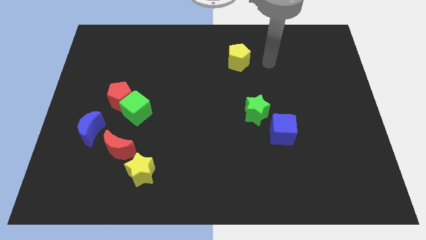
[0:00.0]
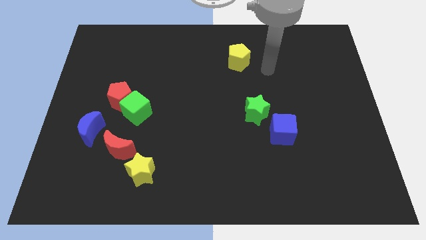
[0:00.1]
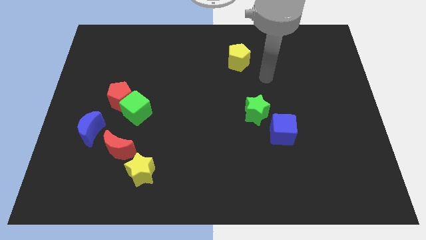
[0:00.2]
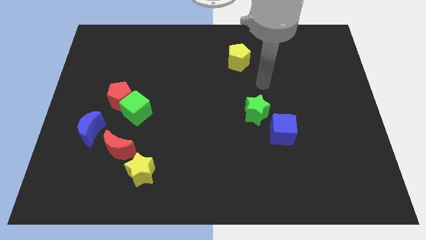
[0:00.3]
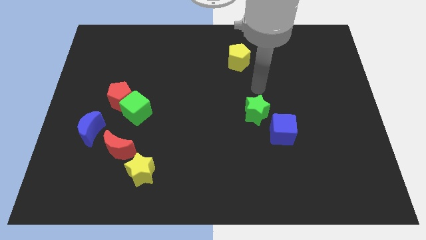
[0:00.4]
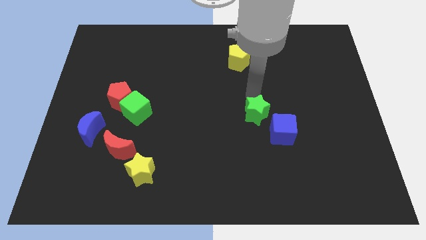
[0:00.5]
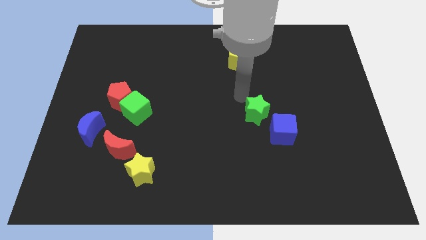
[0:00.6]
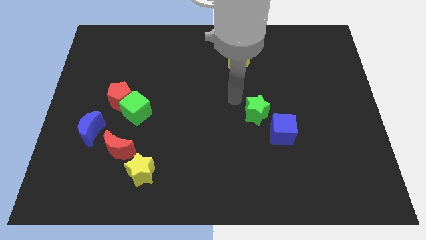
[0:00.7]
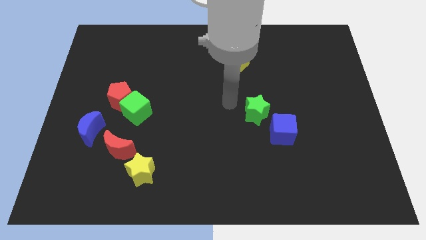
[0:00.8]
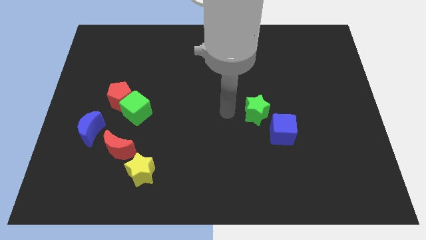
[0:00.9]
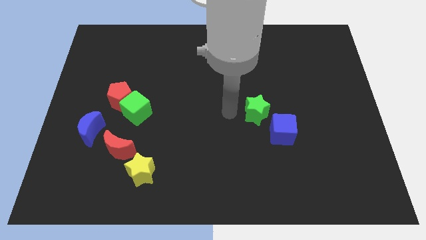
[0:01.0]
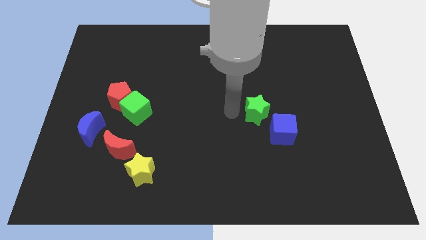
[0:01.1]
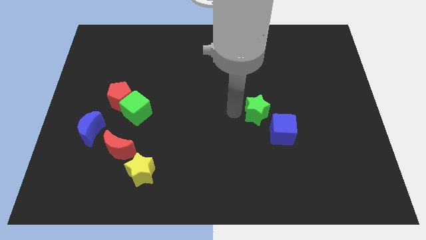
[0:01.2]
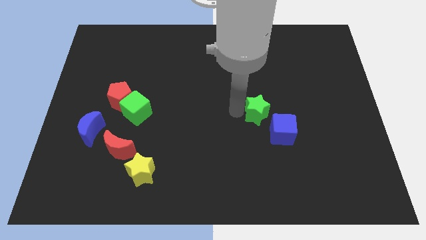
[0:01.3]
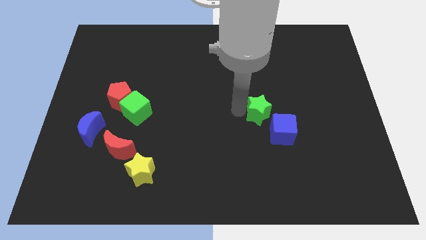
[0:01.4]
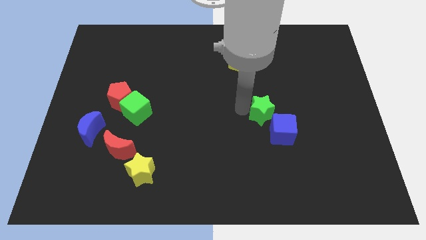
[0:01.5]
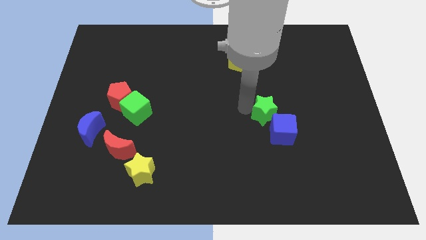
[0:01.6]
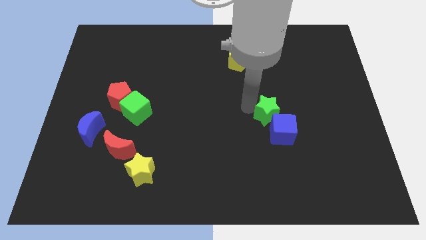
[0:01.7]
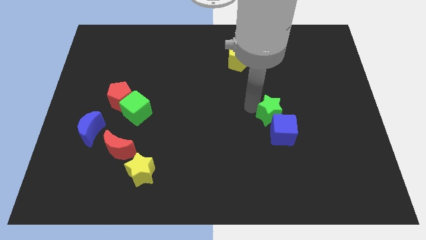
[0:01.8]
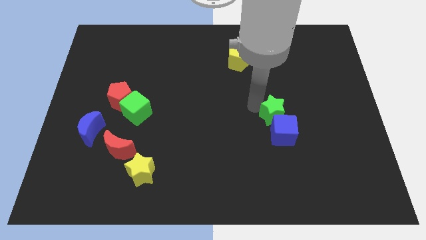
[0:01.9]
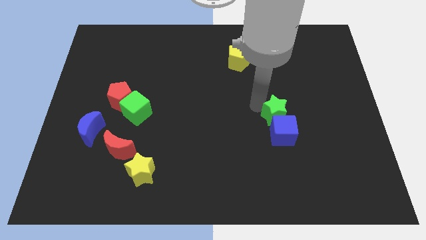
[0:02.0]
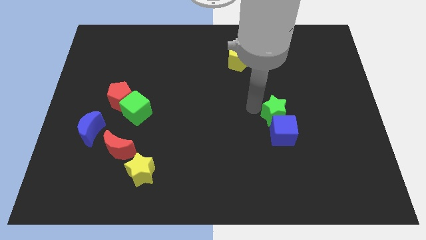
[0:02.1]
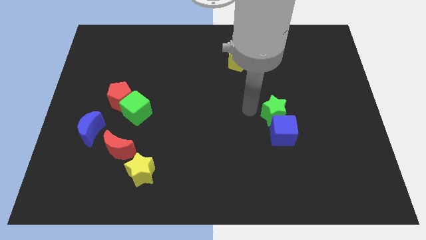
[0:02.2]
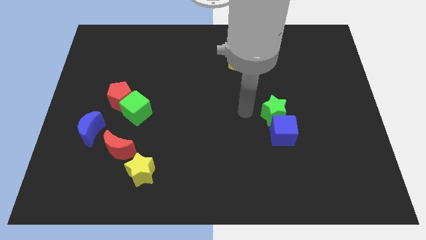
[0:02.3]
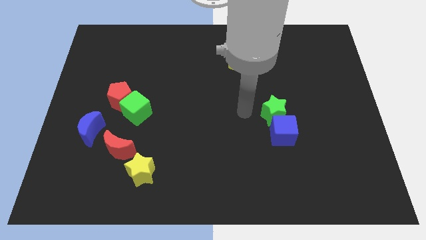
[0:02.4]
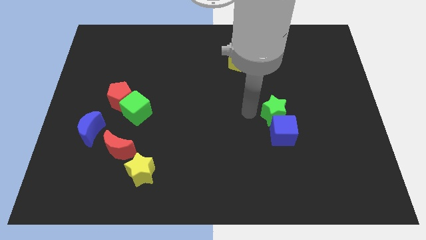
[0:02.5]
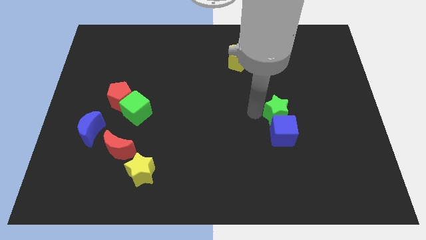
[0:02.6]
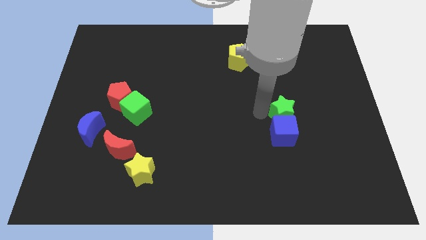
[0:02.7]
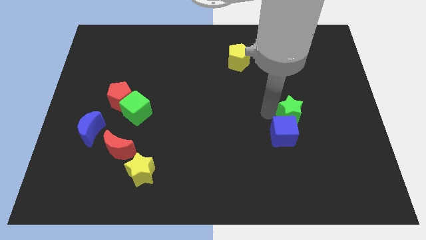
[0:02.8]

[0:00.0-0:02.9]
slightly push the green star right

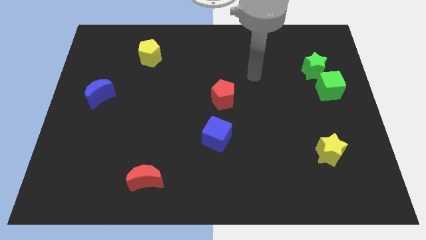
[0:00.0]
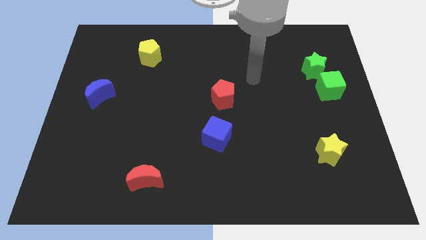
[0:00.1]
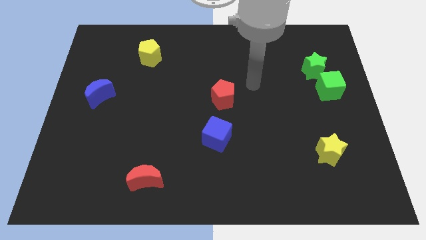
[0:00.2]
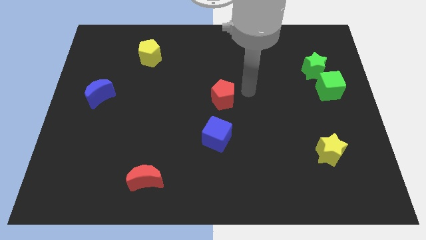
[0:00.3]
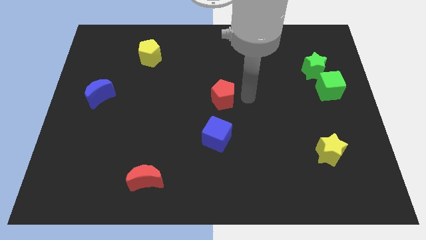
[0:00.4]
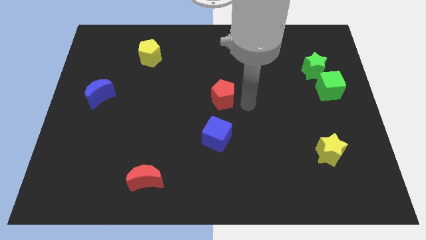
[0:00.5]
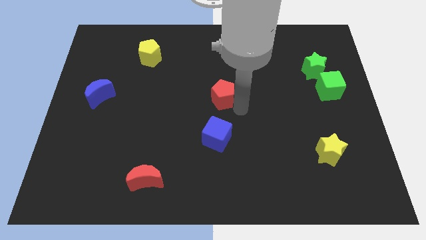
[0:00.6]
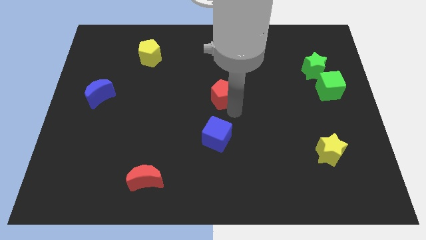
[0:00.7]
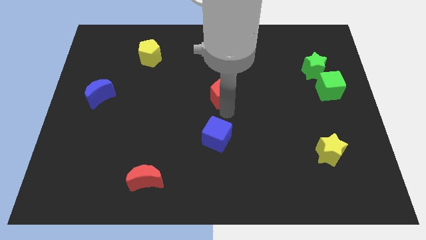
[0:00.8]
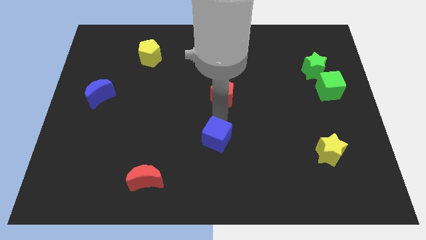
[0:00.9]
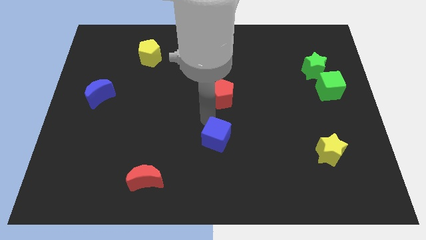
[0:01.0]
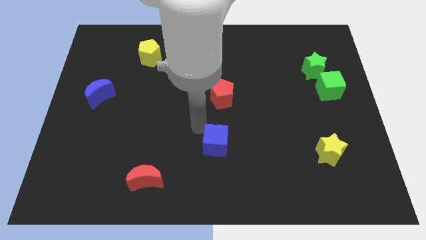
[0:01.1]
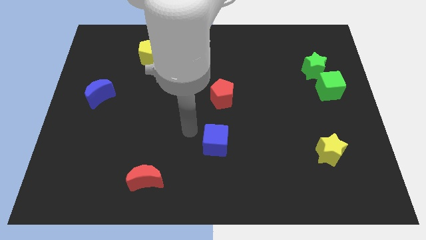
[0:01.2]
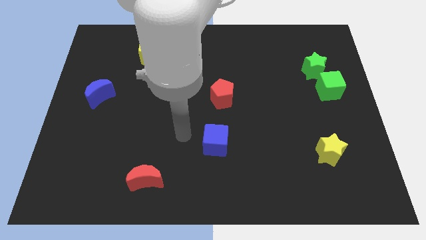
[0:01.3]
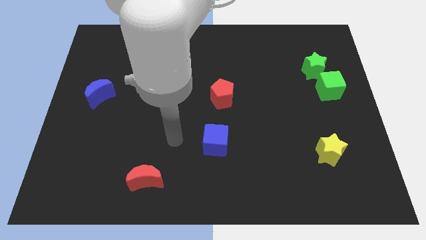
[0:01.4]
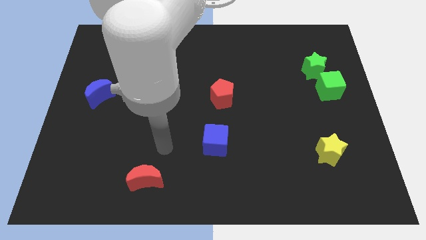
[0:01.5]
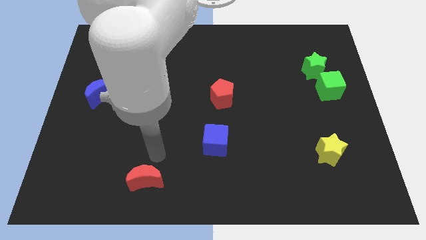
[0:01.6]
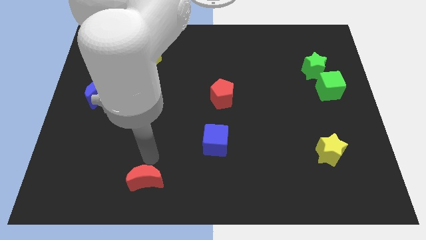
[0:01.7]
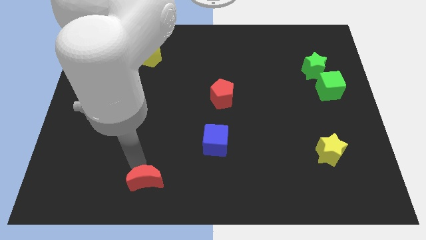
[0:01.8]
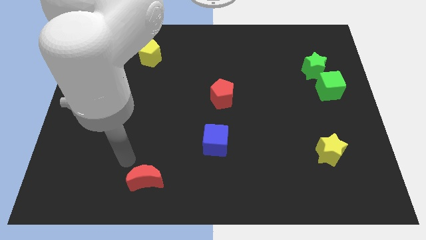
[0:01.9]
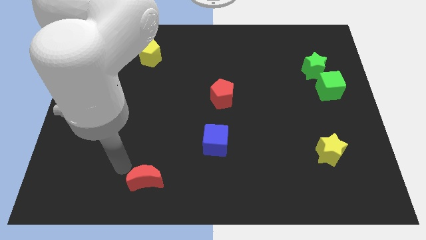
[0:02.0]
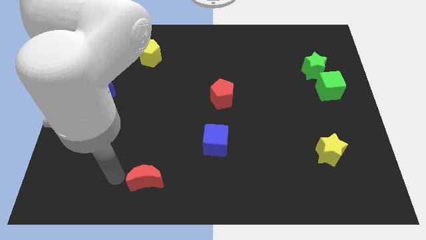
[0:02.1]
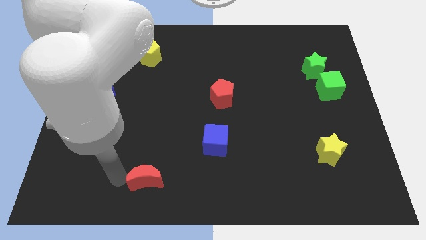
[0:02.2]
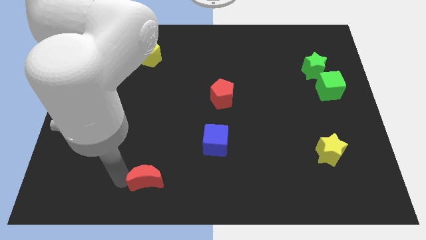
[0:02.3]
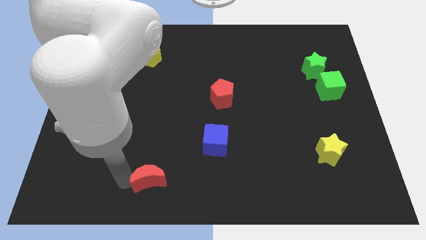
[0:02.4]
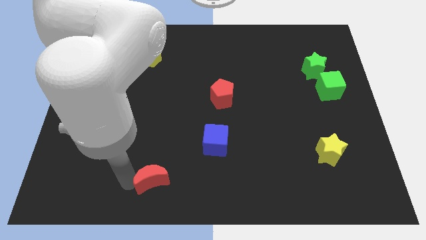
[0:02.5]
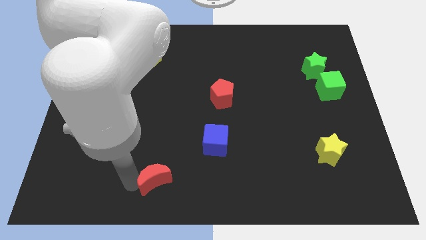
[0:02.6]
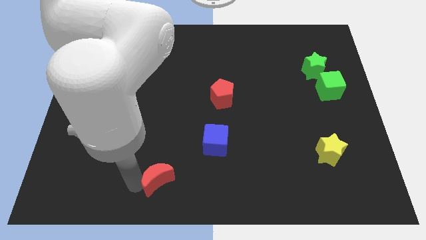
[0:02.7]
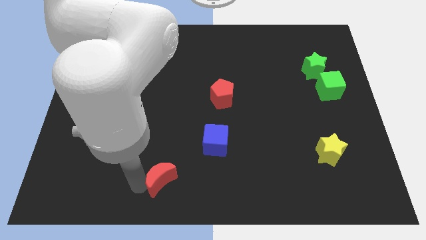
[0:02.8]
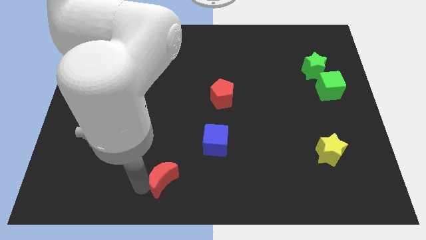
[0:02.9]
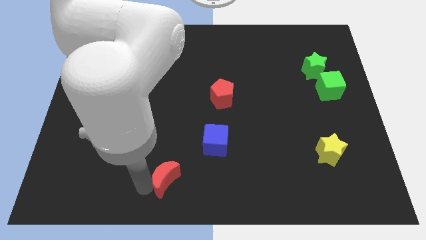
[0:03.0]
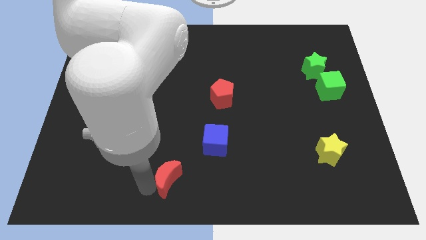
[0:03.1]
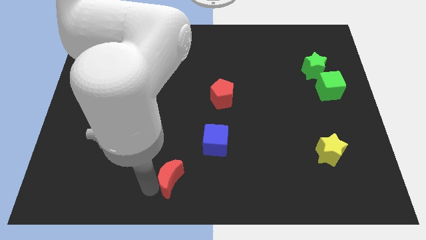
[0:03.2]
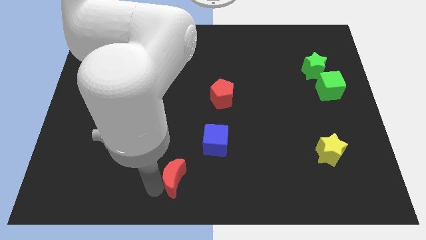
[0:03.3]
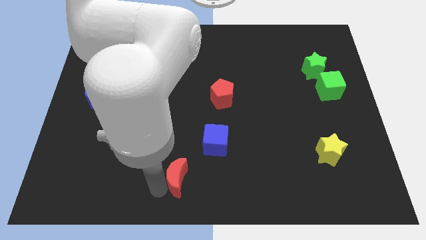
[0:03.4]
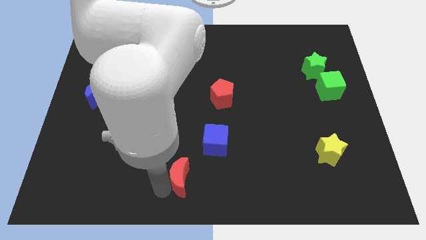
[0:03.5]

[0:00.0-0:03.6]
push the red moon to the right a bit

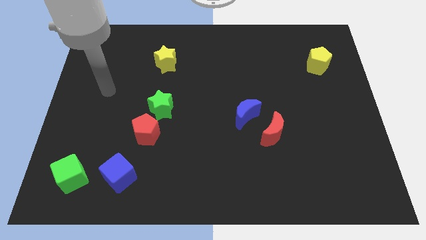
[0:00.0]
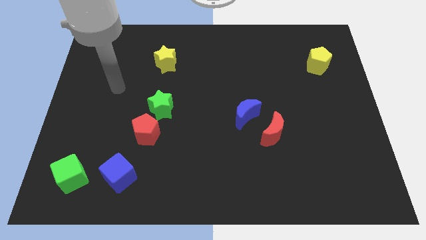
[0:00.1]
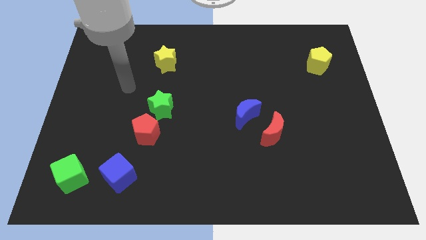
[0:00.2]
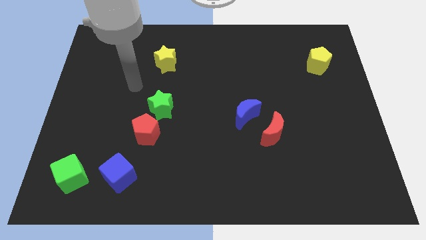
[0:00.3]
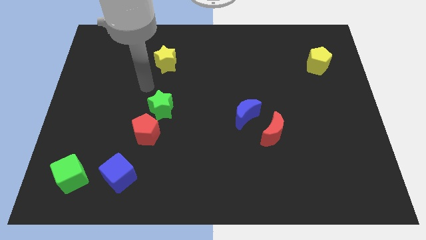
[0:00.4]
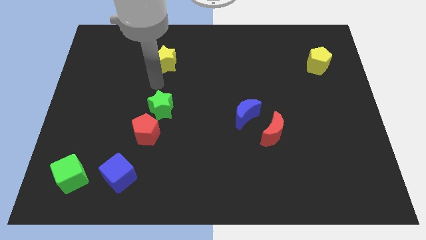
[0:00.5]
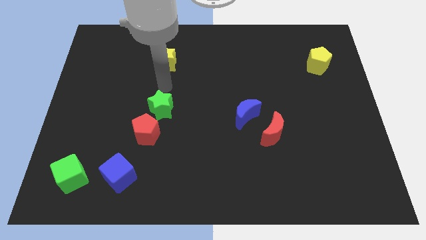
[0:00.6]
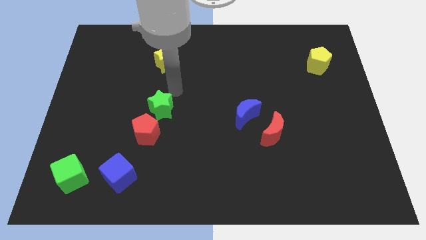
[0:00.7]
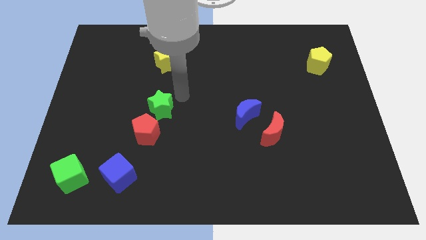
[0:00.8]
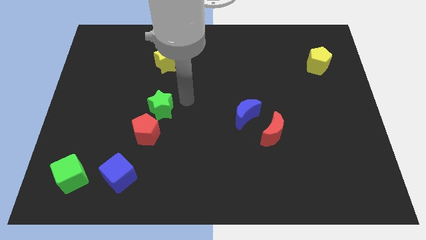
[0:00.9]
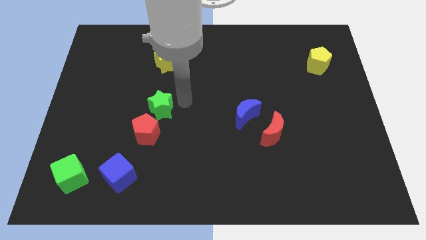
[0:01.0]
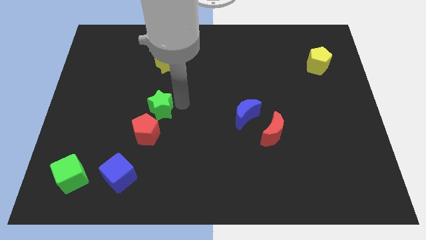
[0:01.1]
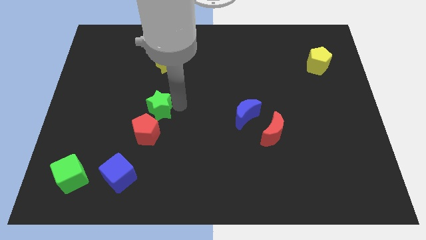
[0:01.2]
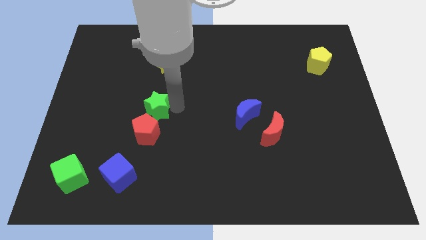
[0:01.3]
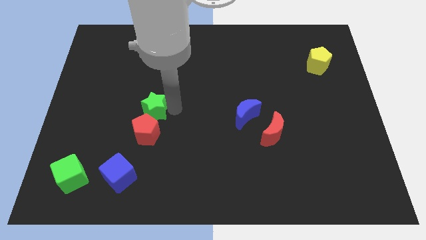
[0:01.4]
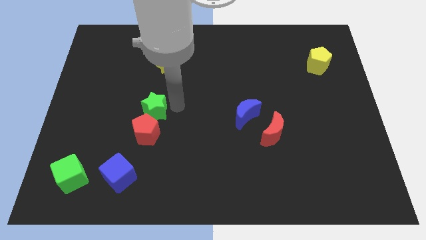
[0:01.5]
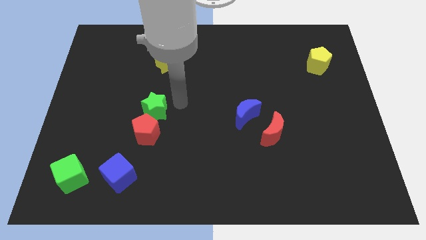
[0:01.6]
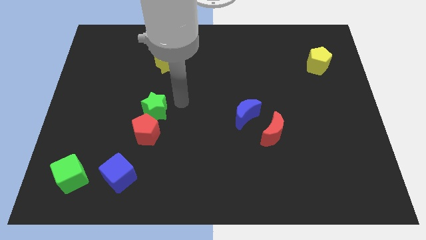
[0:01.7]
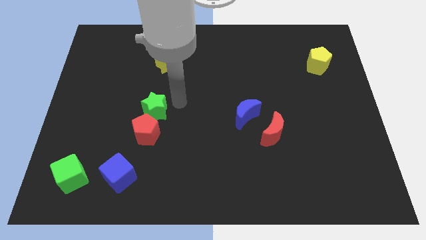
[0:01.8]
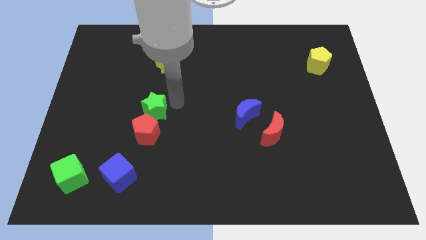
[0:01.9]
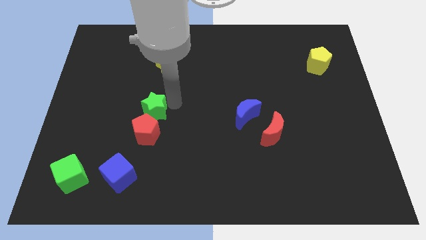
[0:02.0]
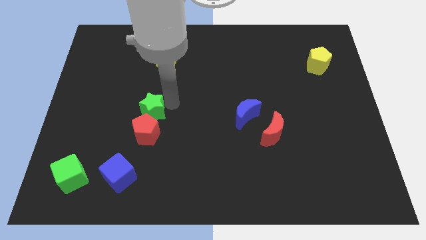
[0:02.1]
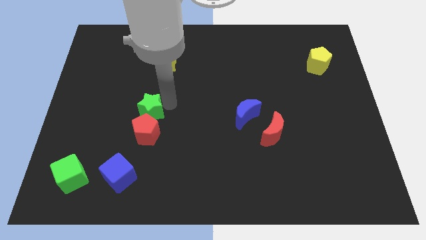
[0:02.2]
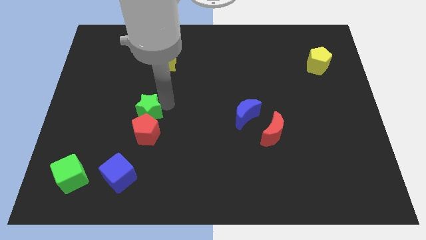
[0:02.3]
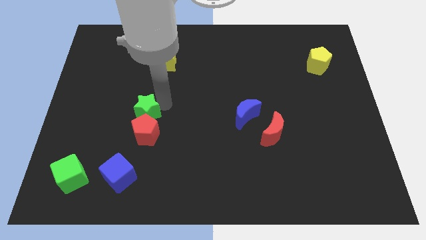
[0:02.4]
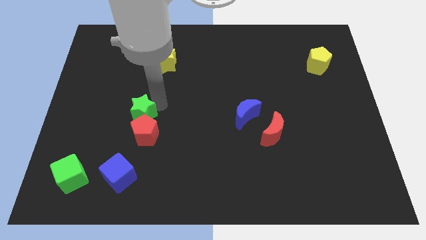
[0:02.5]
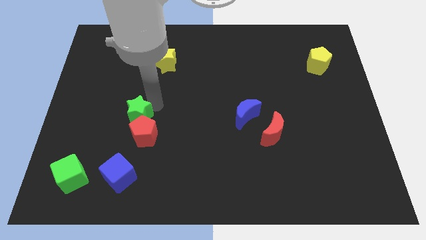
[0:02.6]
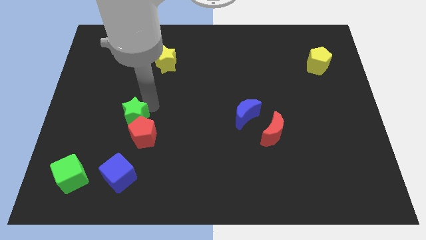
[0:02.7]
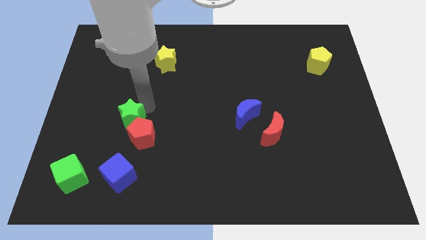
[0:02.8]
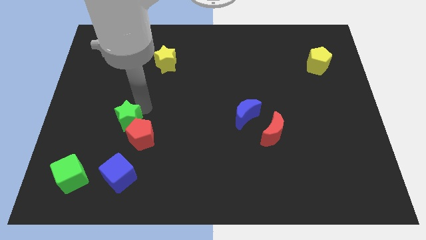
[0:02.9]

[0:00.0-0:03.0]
slightly slide the green star diagonally downwards and left
